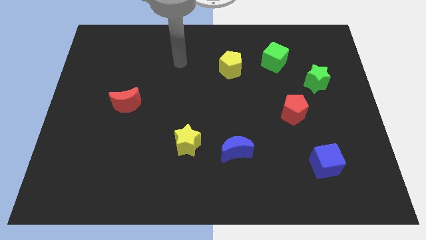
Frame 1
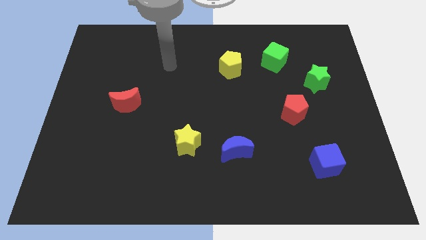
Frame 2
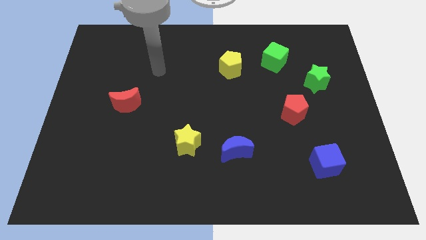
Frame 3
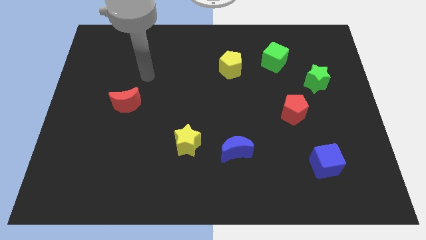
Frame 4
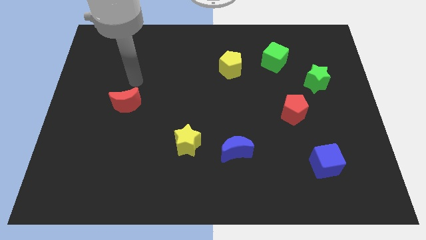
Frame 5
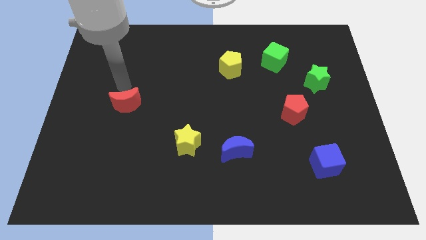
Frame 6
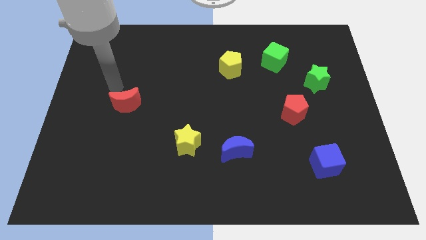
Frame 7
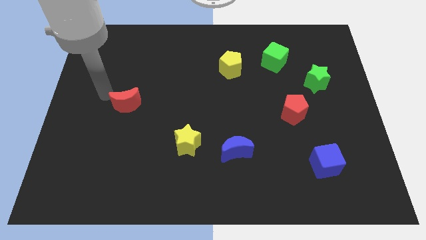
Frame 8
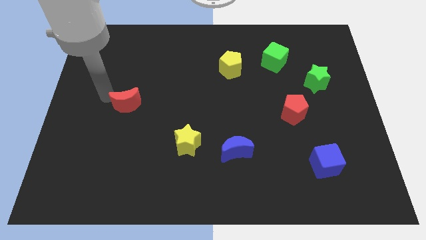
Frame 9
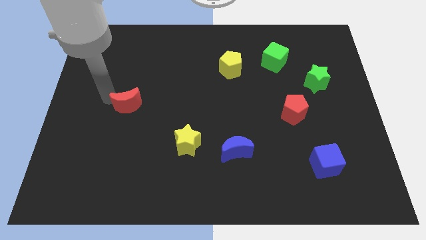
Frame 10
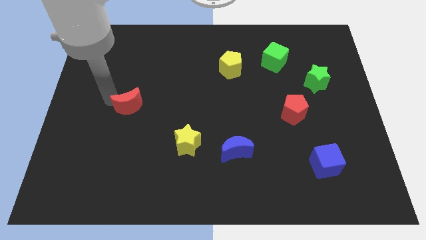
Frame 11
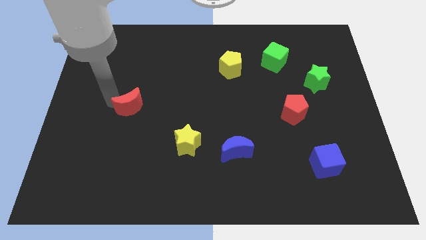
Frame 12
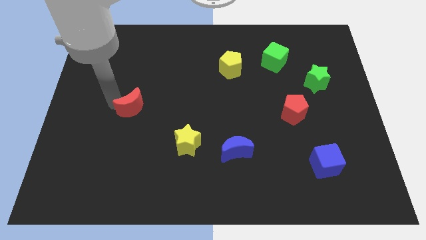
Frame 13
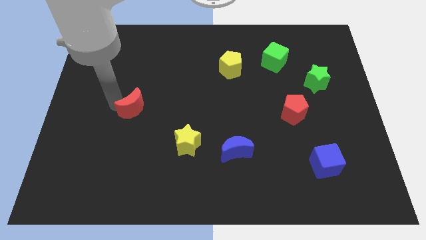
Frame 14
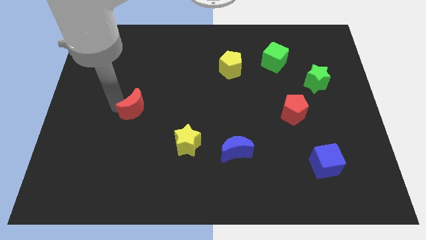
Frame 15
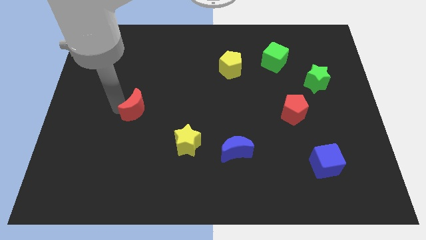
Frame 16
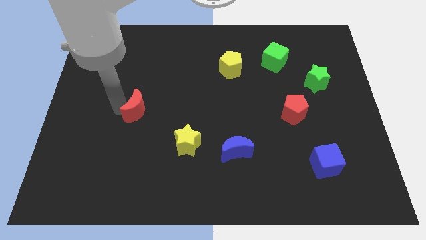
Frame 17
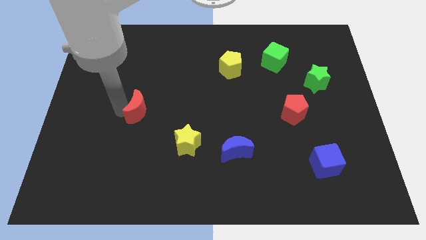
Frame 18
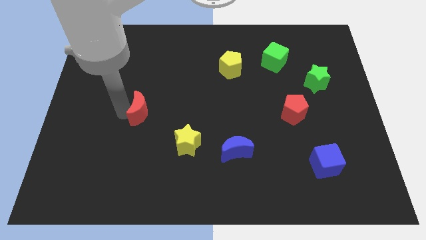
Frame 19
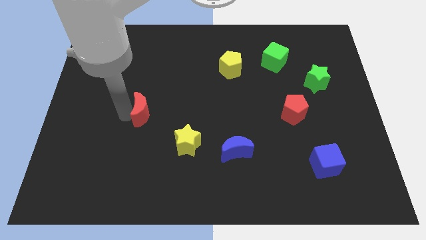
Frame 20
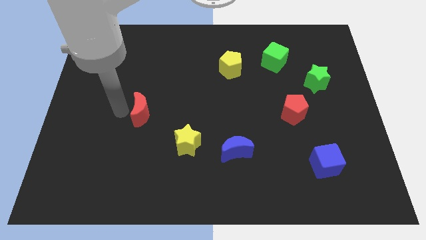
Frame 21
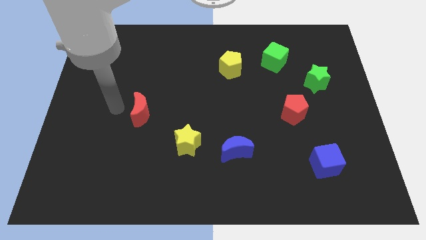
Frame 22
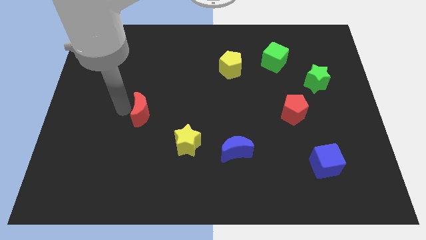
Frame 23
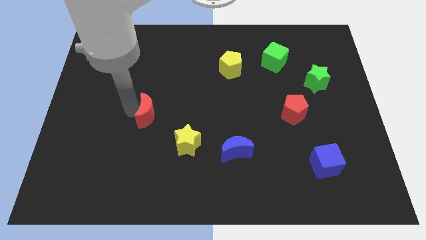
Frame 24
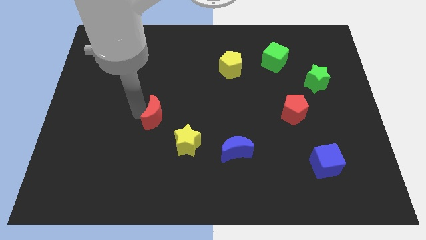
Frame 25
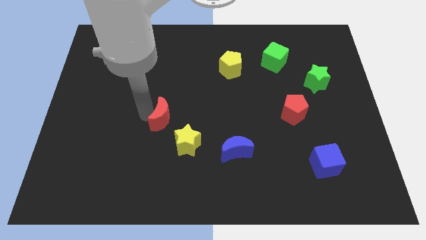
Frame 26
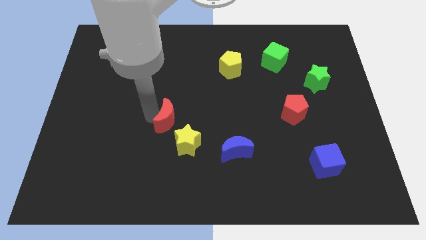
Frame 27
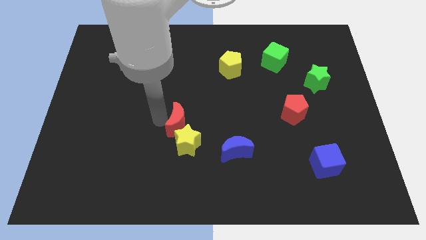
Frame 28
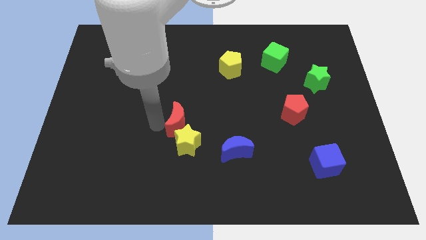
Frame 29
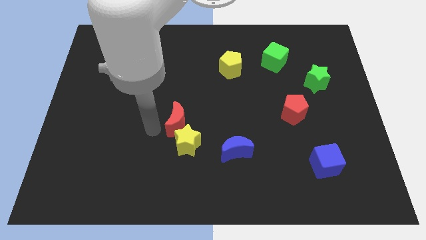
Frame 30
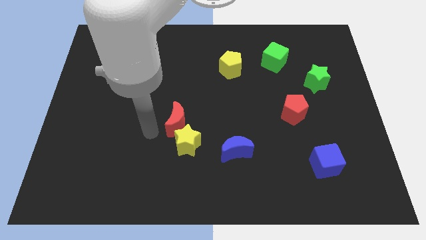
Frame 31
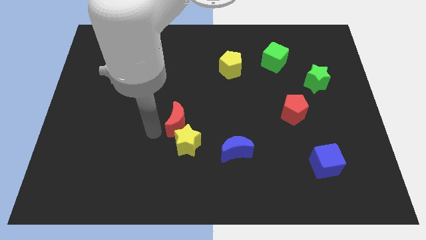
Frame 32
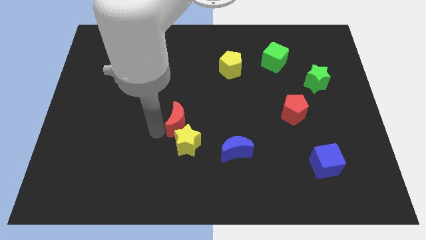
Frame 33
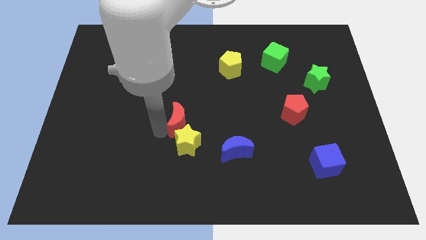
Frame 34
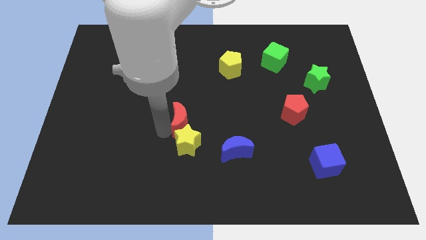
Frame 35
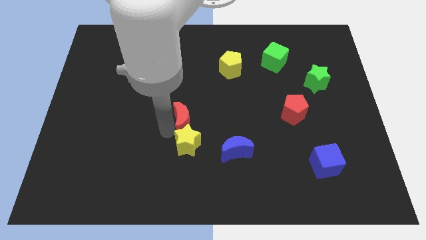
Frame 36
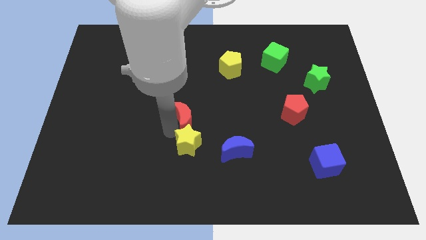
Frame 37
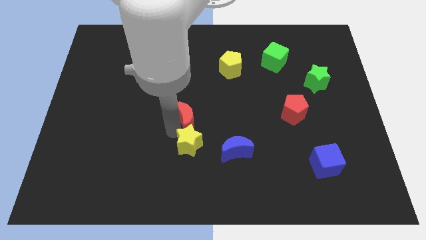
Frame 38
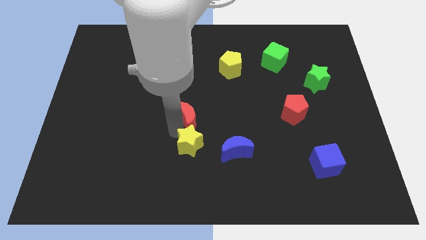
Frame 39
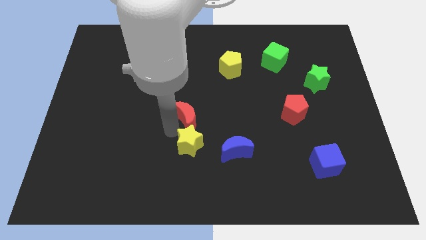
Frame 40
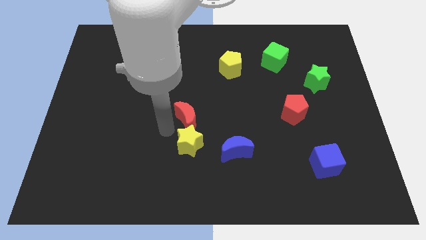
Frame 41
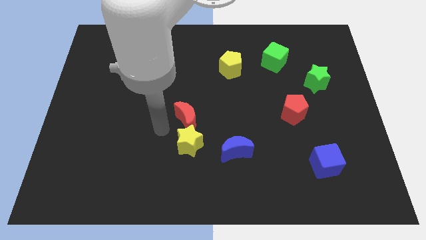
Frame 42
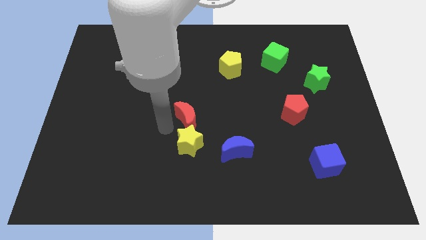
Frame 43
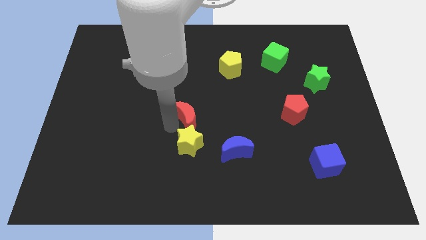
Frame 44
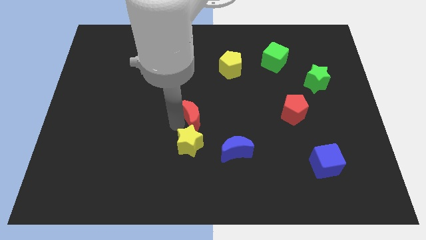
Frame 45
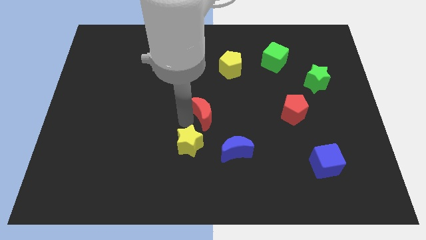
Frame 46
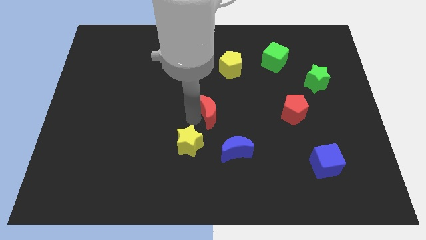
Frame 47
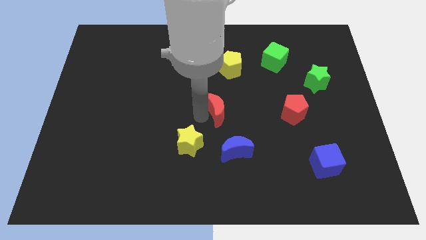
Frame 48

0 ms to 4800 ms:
push the red moon to the right

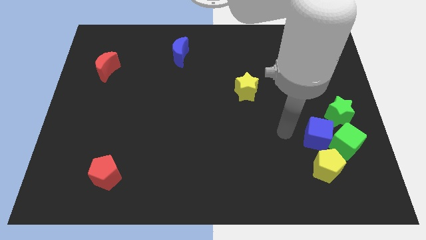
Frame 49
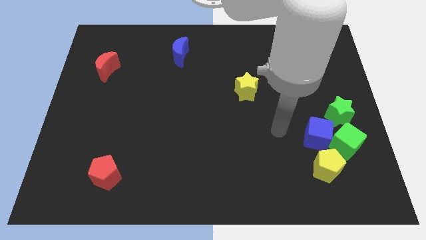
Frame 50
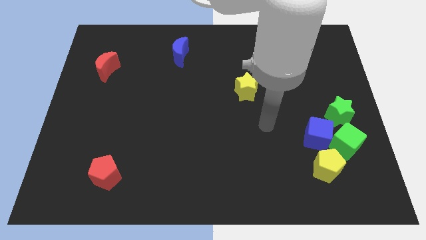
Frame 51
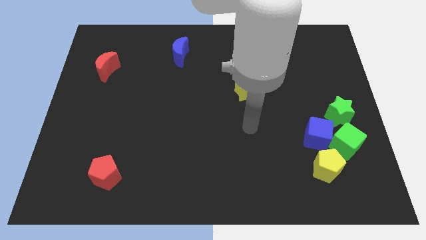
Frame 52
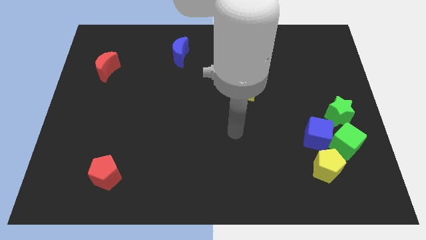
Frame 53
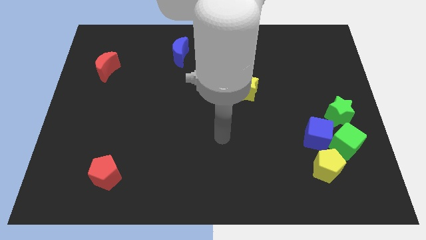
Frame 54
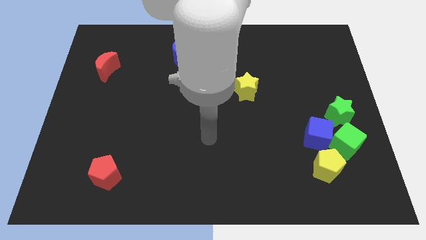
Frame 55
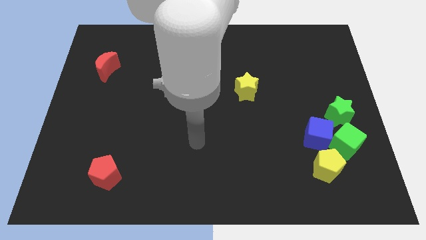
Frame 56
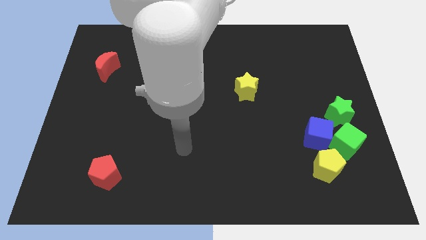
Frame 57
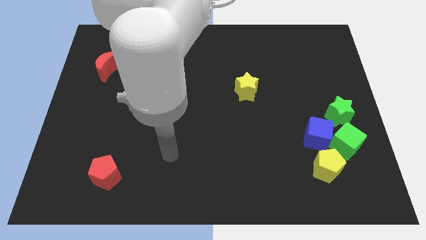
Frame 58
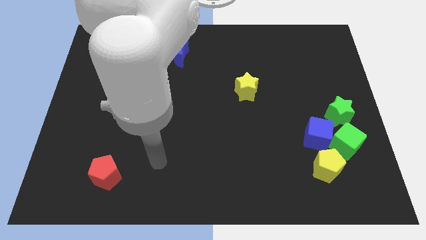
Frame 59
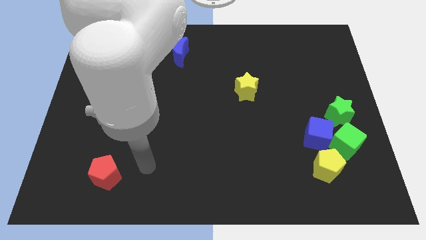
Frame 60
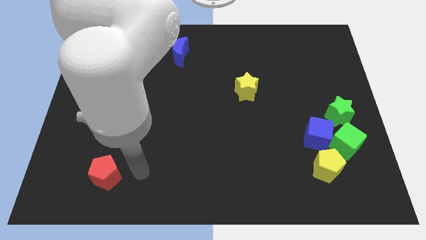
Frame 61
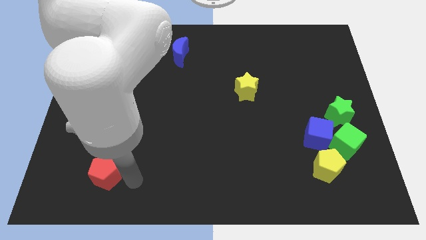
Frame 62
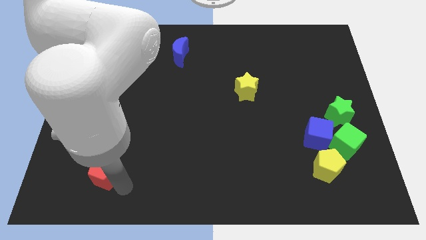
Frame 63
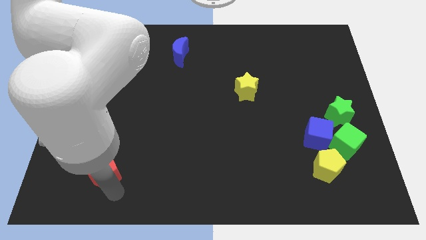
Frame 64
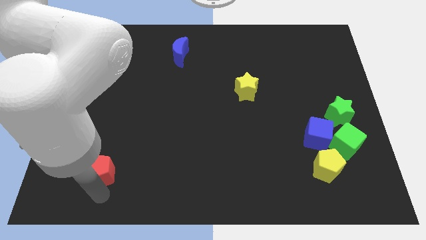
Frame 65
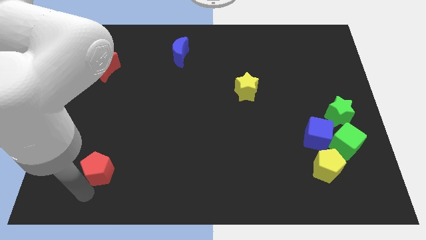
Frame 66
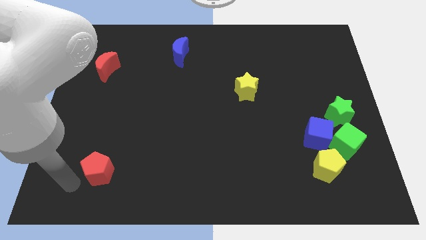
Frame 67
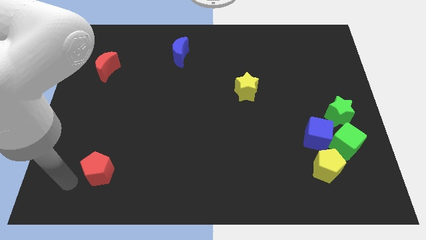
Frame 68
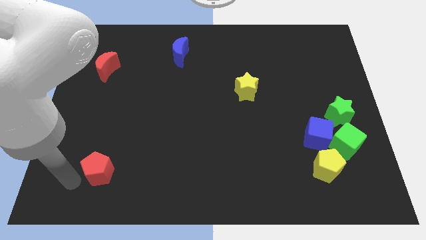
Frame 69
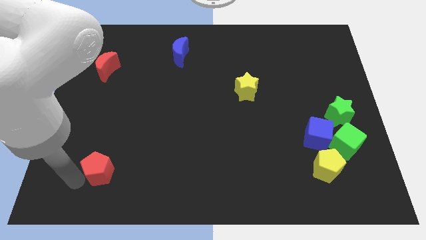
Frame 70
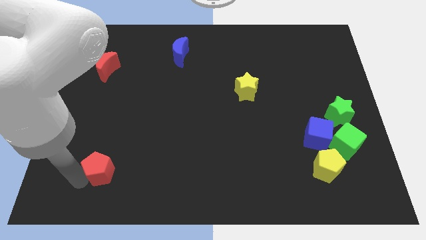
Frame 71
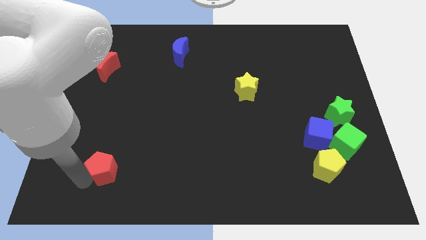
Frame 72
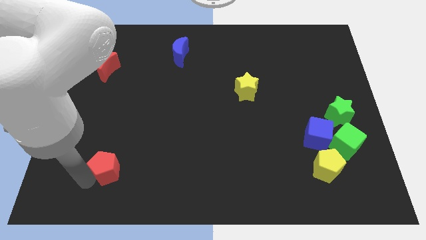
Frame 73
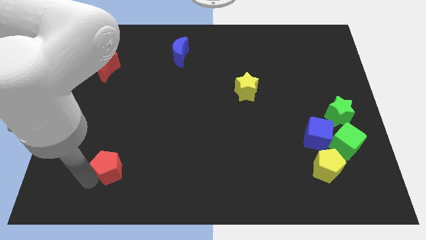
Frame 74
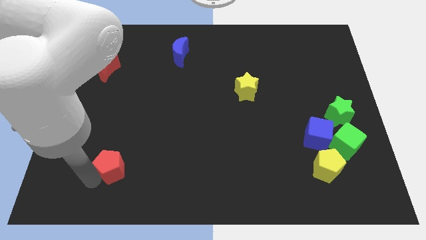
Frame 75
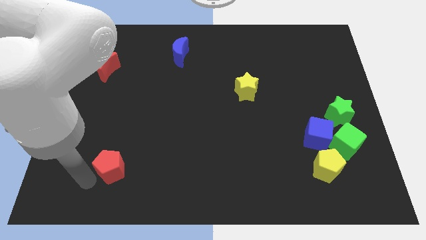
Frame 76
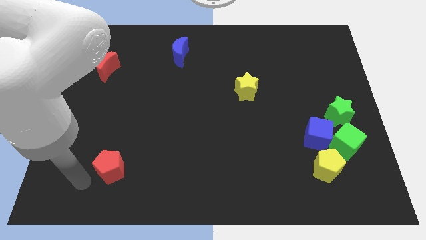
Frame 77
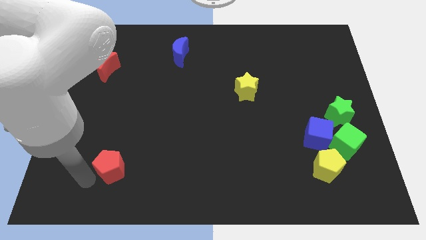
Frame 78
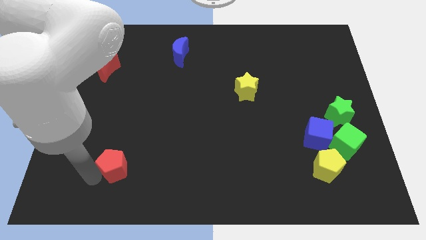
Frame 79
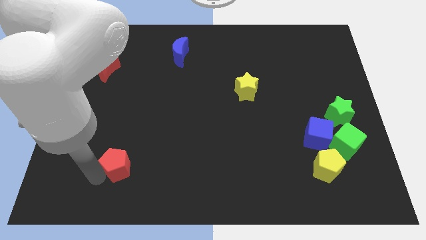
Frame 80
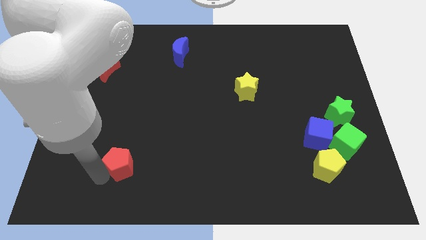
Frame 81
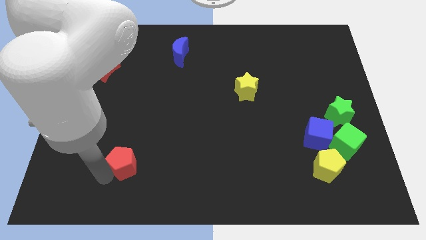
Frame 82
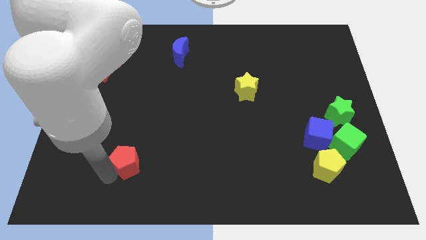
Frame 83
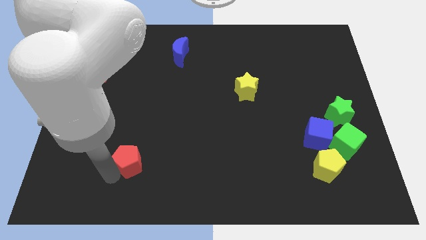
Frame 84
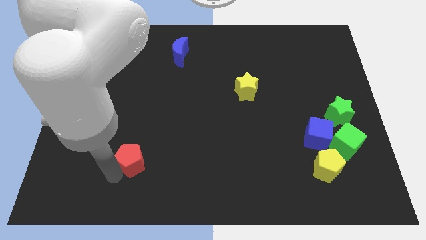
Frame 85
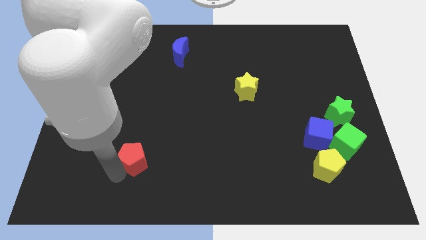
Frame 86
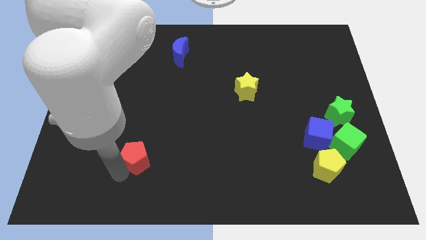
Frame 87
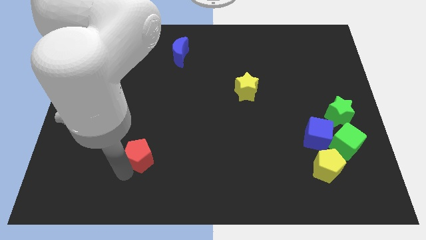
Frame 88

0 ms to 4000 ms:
slightly move the red pentagon upwards and right
